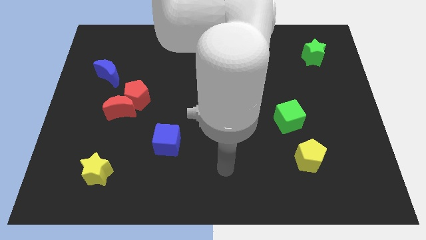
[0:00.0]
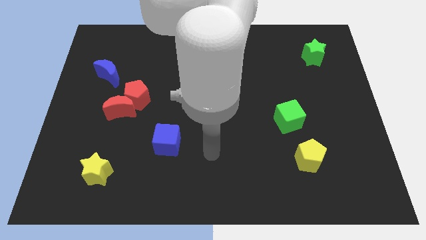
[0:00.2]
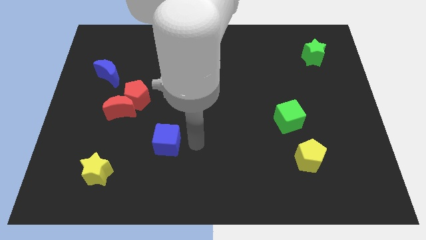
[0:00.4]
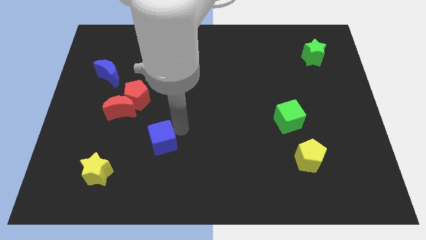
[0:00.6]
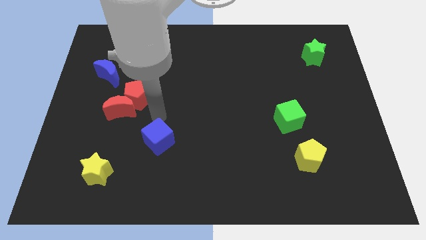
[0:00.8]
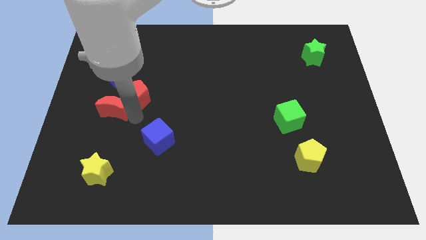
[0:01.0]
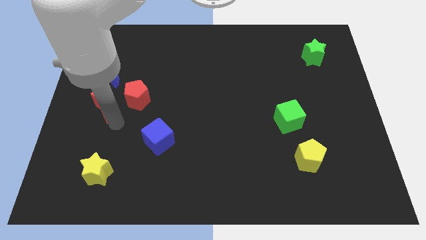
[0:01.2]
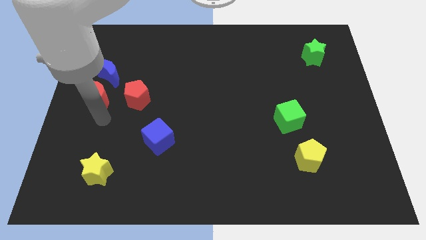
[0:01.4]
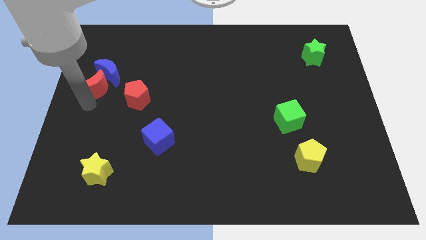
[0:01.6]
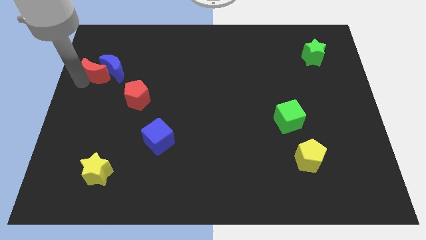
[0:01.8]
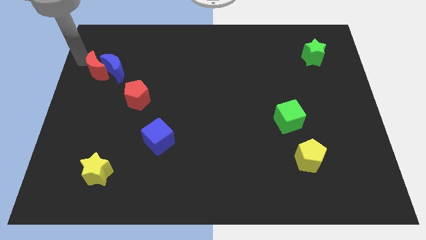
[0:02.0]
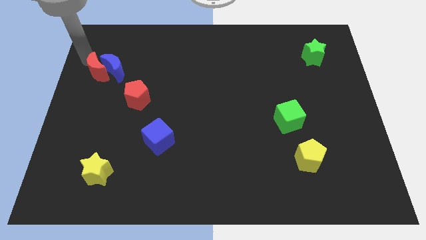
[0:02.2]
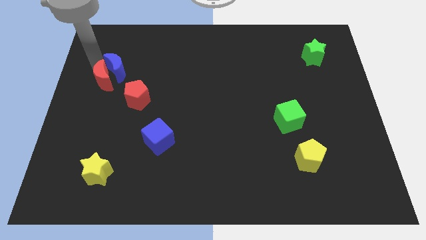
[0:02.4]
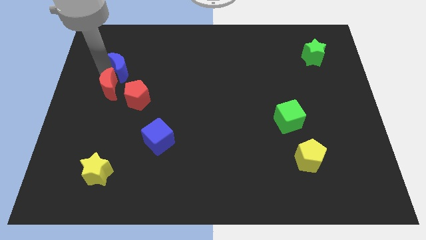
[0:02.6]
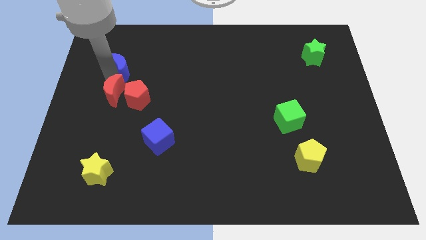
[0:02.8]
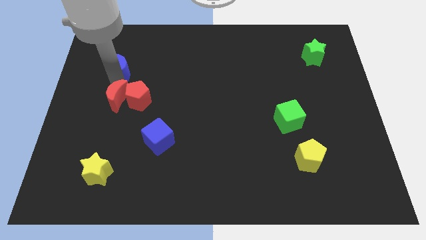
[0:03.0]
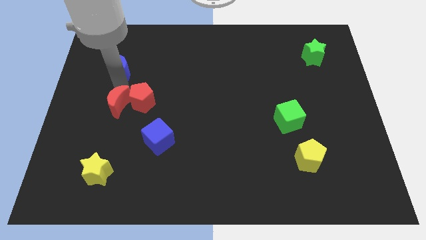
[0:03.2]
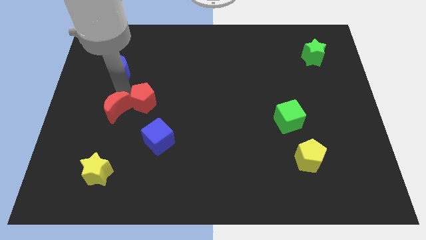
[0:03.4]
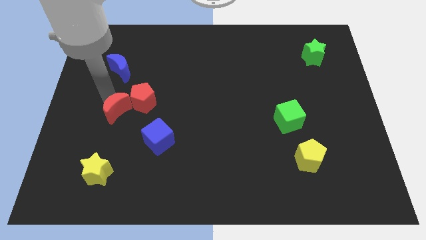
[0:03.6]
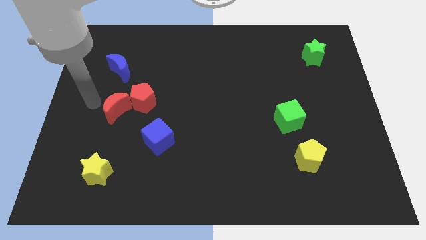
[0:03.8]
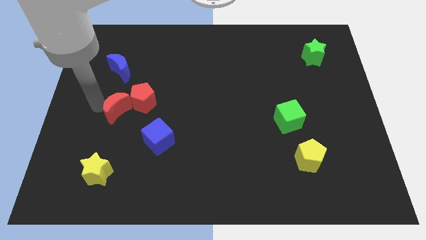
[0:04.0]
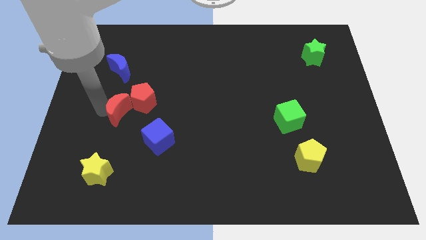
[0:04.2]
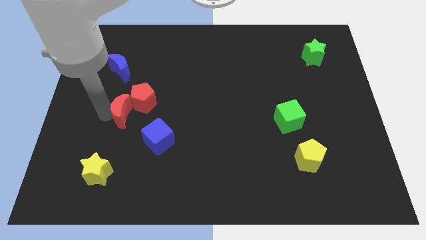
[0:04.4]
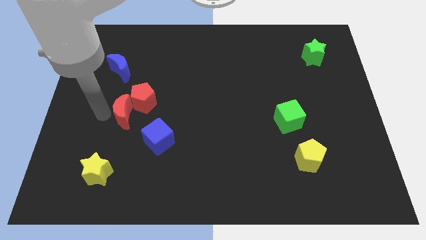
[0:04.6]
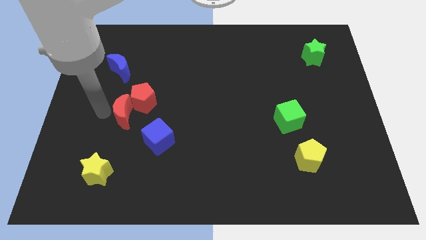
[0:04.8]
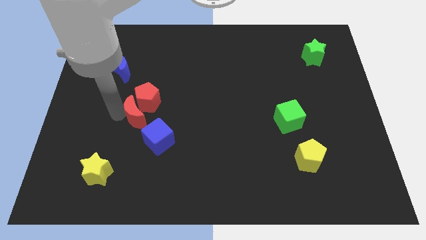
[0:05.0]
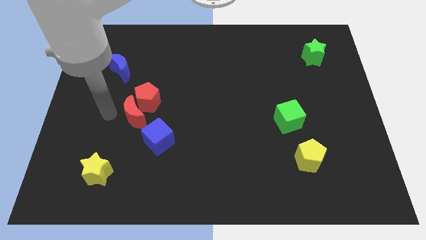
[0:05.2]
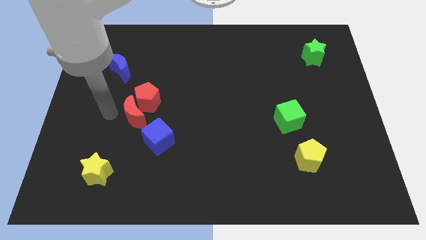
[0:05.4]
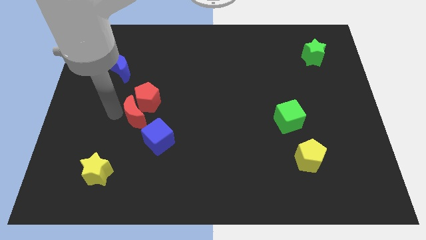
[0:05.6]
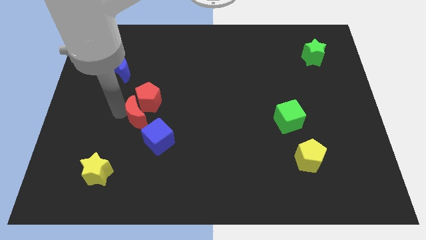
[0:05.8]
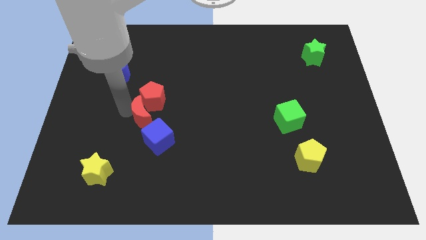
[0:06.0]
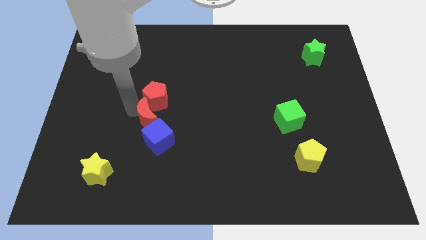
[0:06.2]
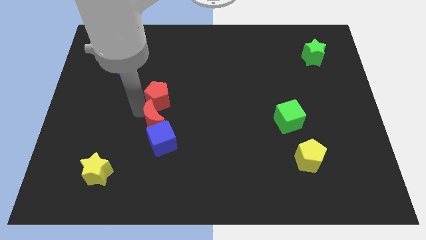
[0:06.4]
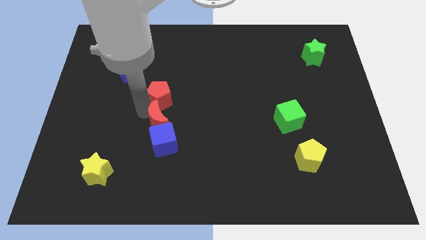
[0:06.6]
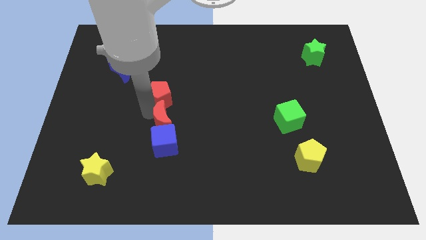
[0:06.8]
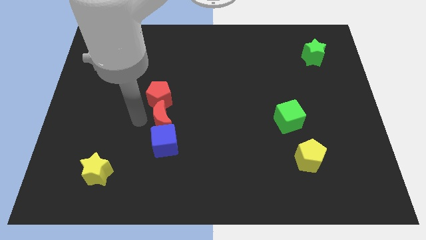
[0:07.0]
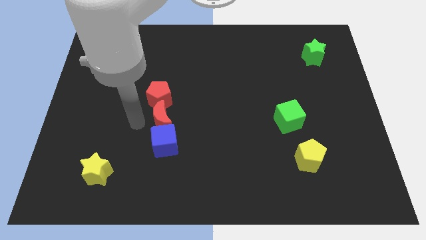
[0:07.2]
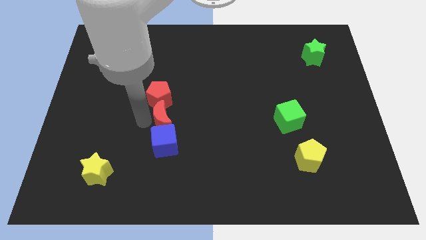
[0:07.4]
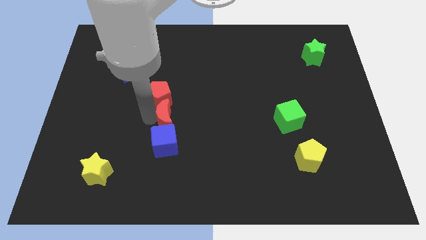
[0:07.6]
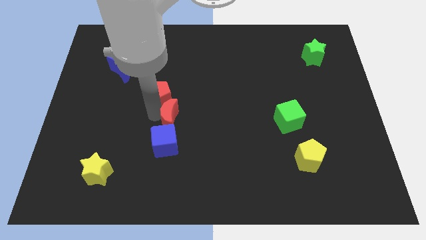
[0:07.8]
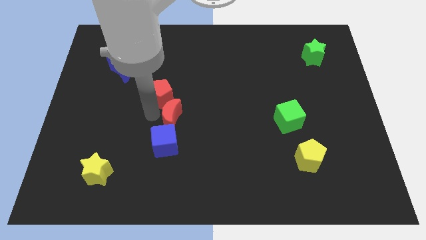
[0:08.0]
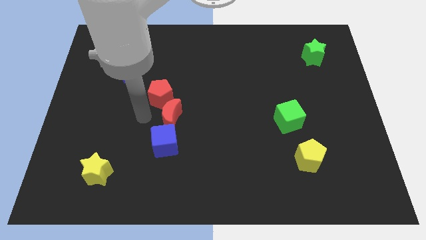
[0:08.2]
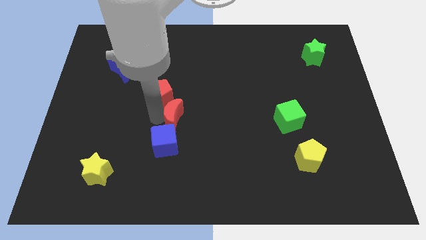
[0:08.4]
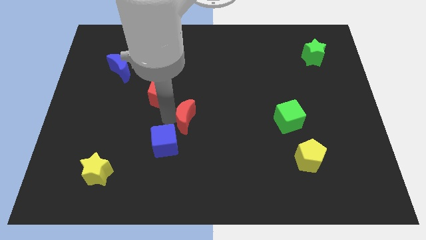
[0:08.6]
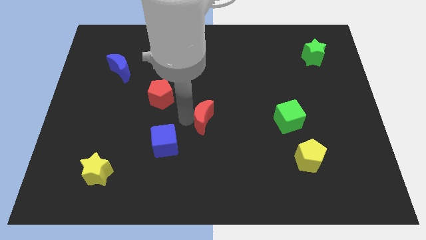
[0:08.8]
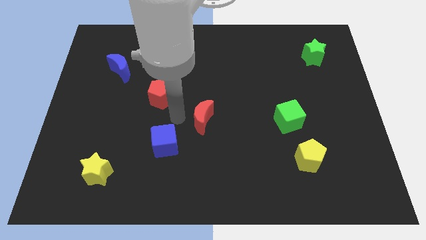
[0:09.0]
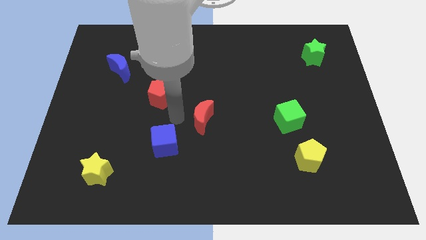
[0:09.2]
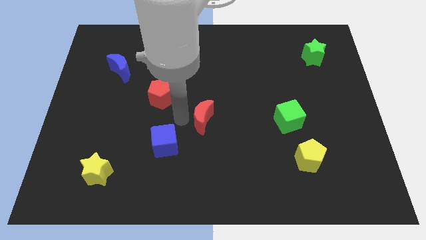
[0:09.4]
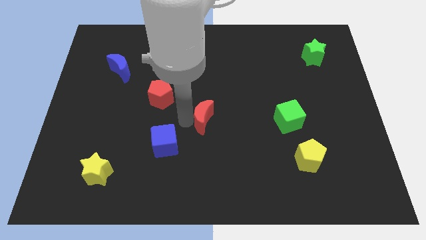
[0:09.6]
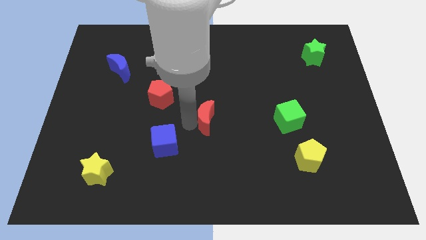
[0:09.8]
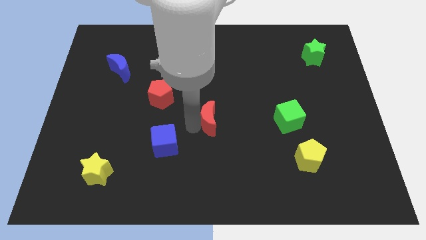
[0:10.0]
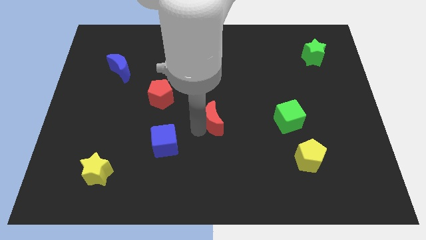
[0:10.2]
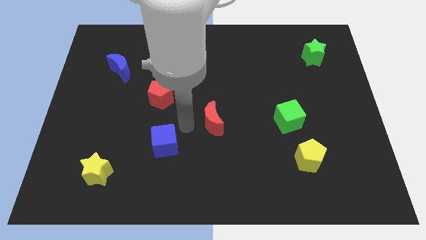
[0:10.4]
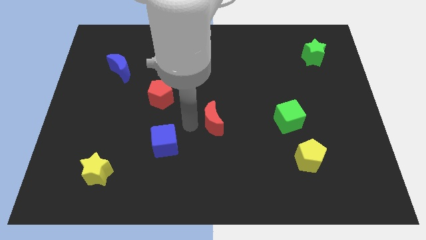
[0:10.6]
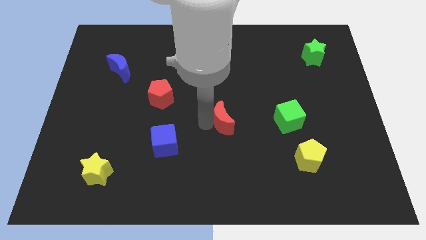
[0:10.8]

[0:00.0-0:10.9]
put the red moon left of the green cube

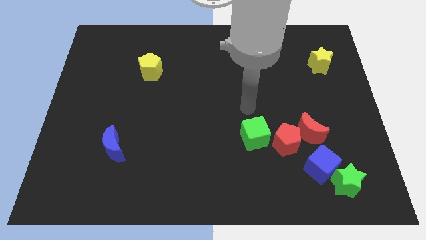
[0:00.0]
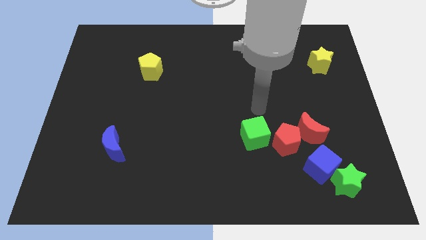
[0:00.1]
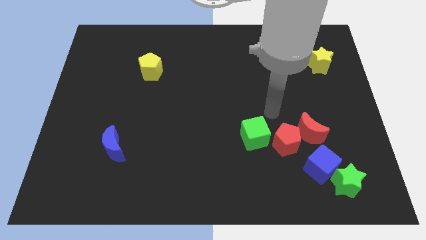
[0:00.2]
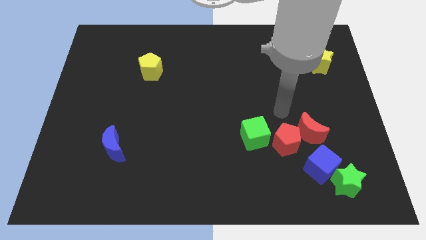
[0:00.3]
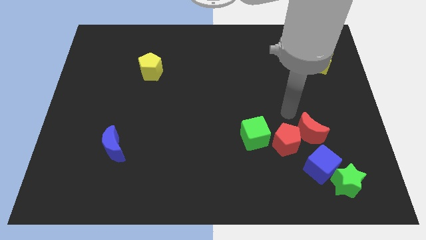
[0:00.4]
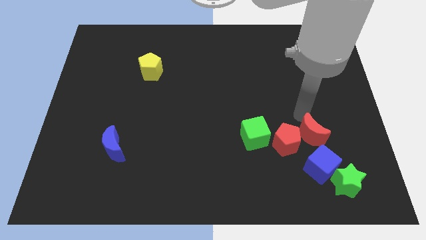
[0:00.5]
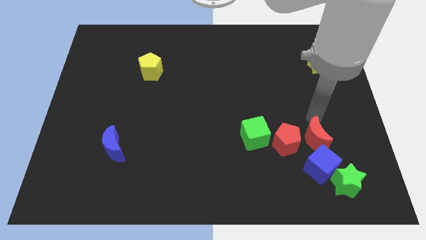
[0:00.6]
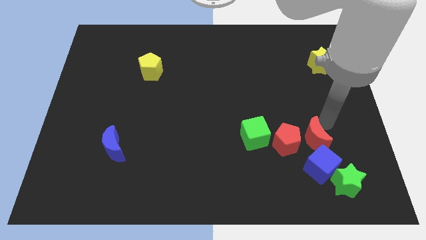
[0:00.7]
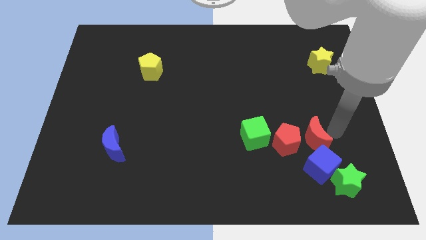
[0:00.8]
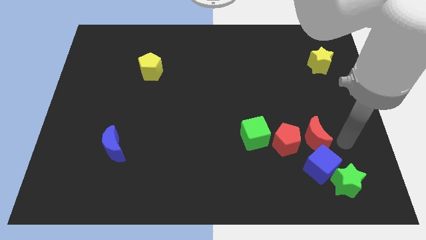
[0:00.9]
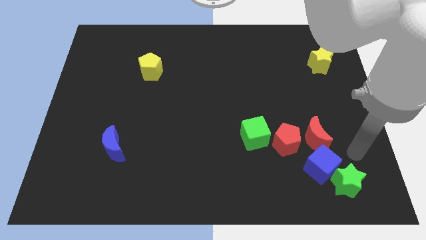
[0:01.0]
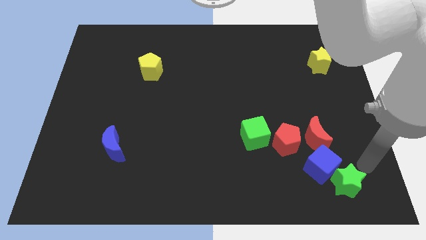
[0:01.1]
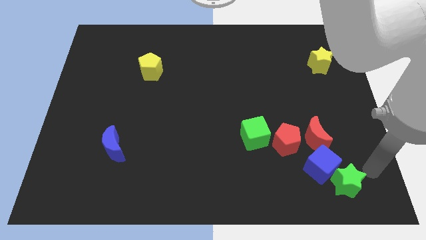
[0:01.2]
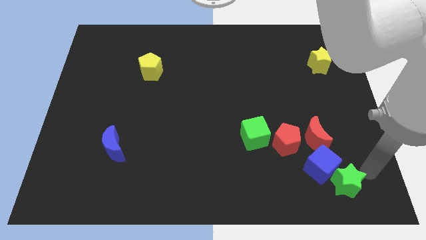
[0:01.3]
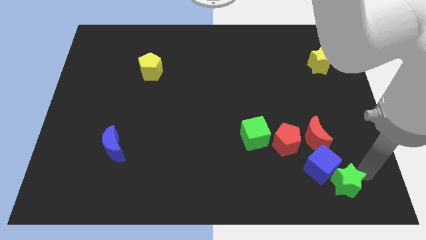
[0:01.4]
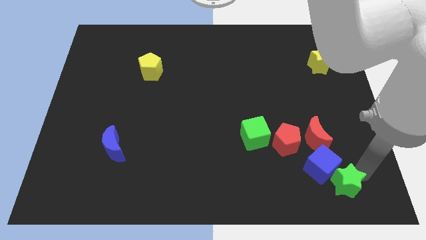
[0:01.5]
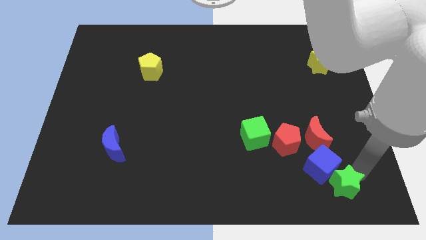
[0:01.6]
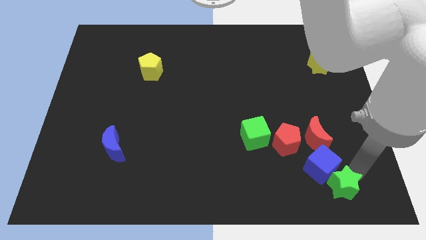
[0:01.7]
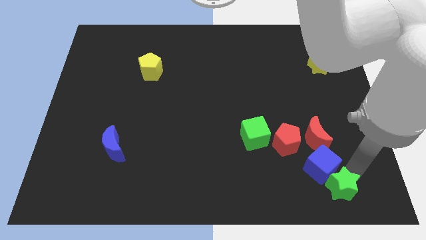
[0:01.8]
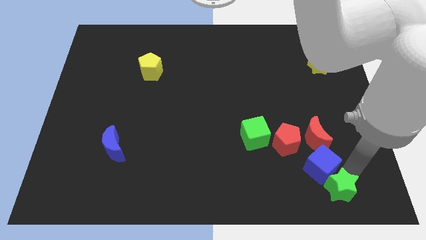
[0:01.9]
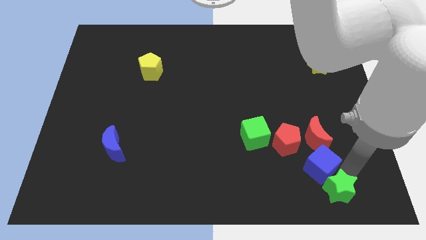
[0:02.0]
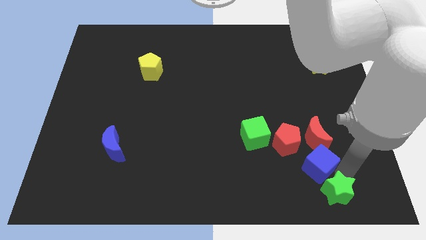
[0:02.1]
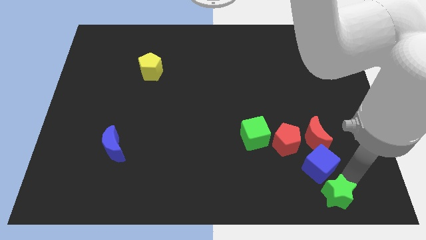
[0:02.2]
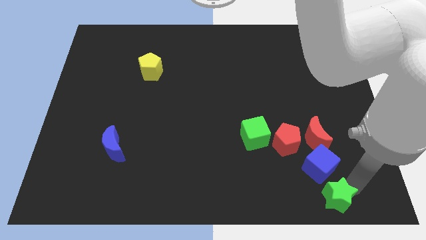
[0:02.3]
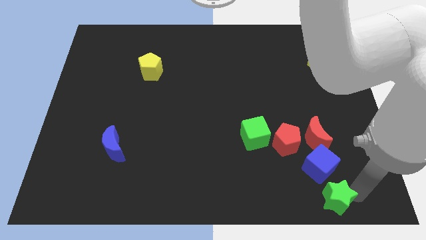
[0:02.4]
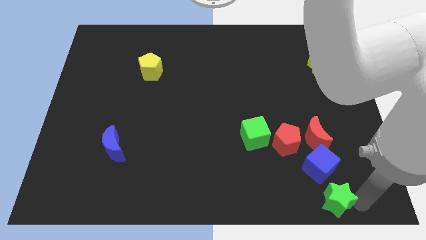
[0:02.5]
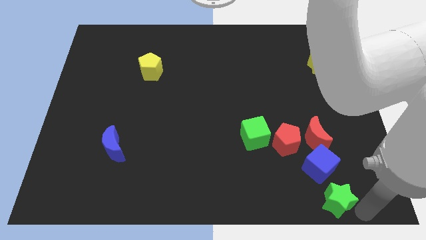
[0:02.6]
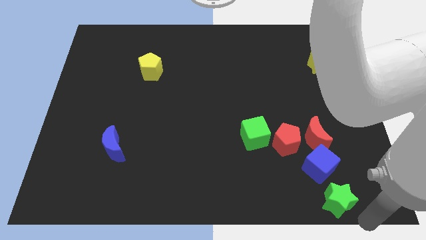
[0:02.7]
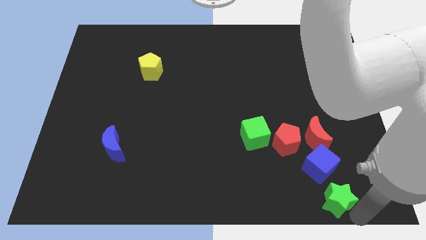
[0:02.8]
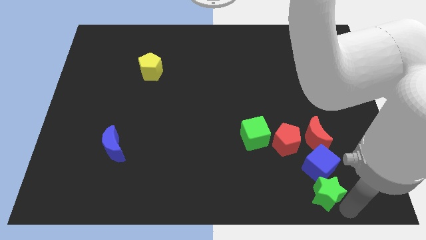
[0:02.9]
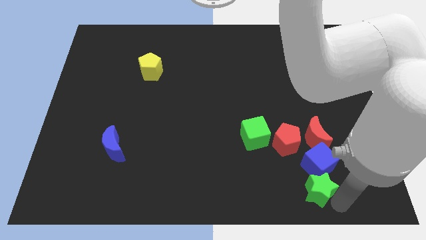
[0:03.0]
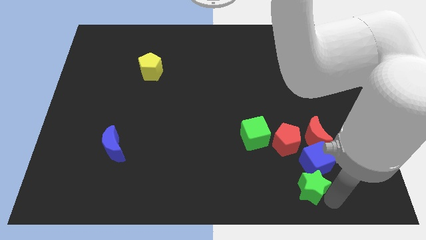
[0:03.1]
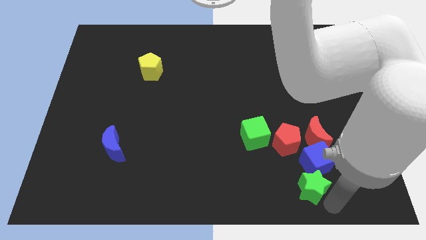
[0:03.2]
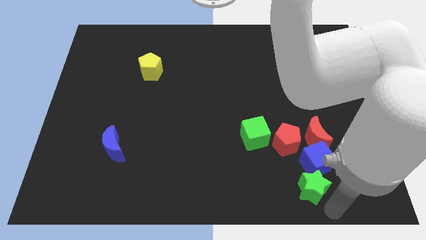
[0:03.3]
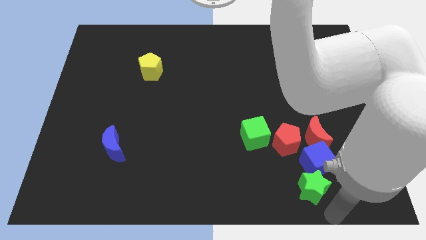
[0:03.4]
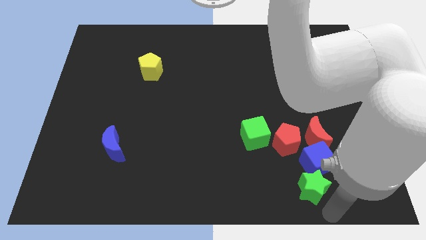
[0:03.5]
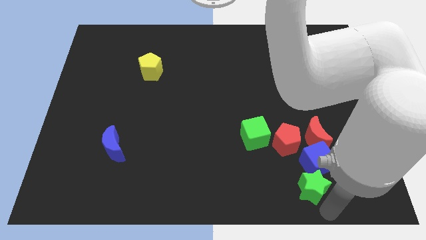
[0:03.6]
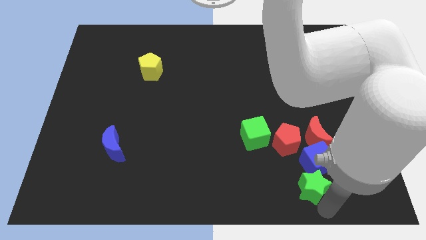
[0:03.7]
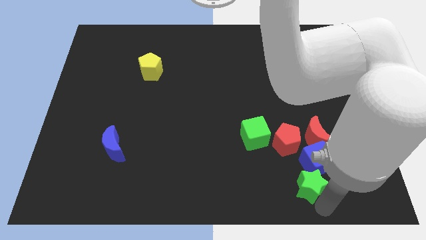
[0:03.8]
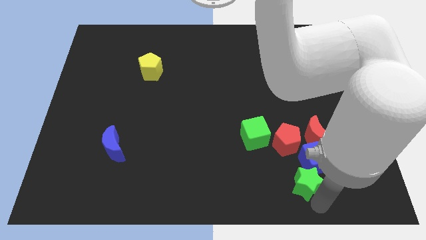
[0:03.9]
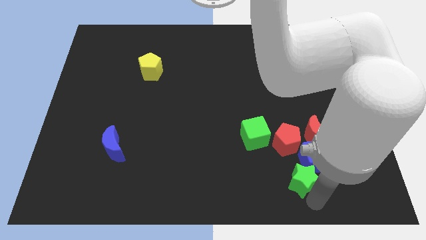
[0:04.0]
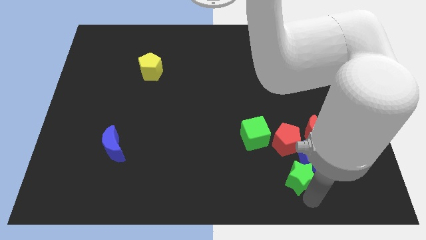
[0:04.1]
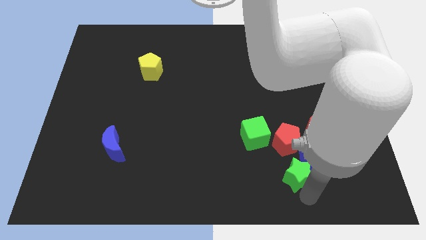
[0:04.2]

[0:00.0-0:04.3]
push the green star diagonally down and to the right of the green cube
